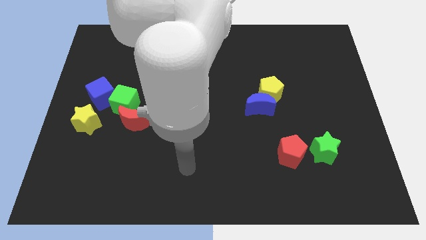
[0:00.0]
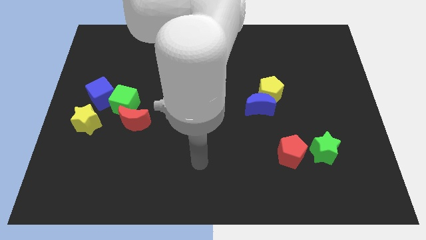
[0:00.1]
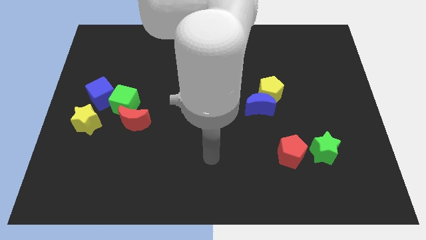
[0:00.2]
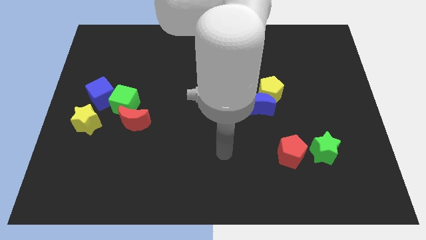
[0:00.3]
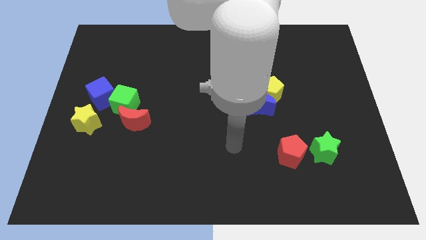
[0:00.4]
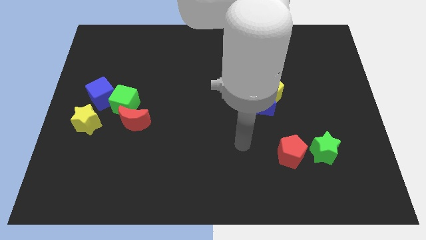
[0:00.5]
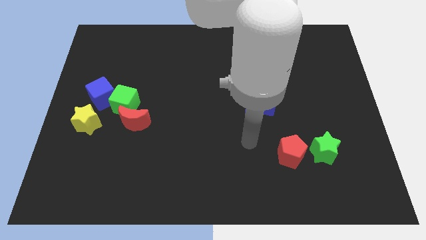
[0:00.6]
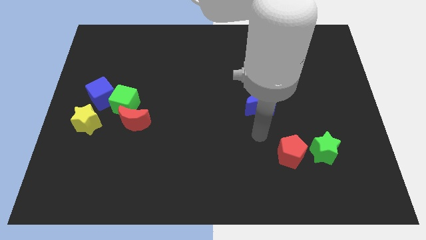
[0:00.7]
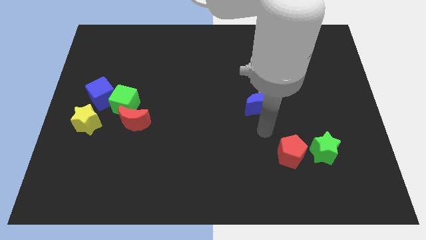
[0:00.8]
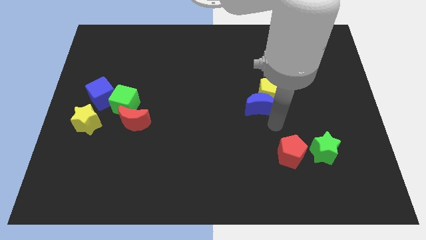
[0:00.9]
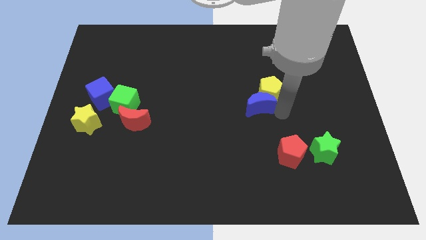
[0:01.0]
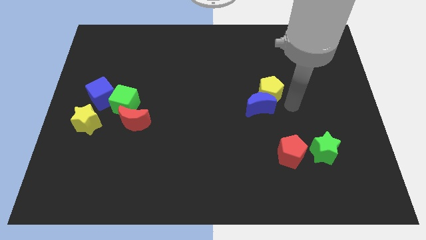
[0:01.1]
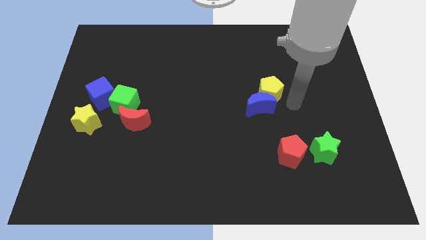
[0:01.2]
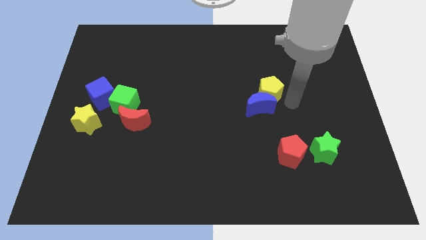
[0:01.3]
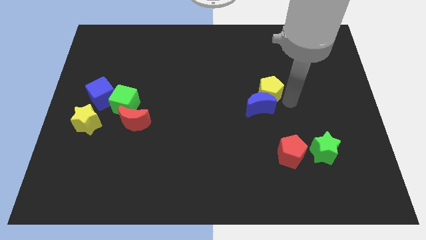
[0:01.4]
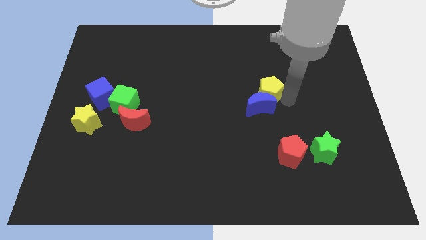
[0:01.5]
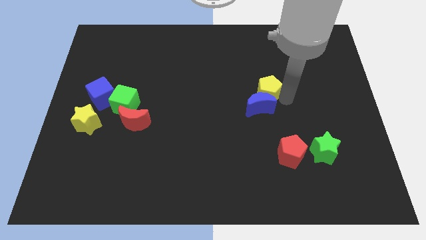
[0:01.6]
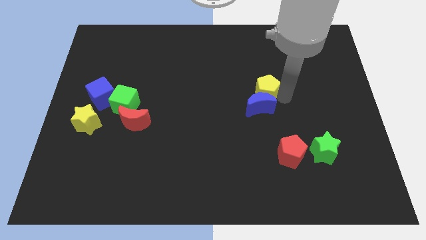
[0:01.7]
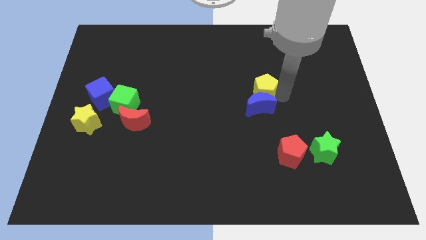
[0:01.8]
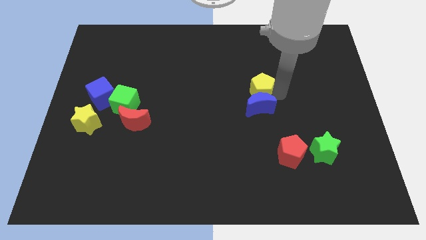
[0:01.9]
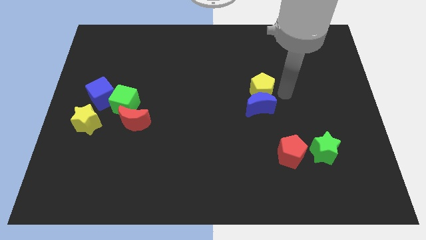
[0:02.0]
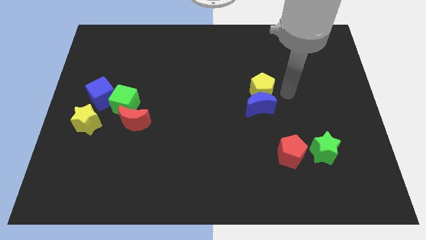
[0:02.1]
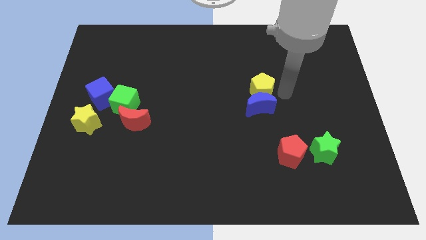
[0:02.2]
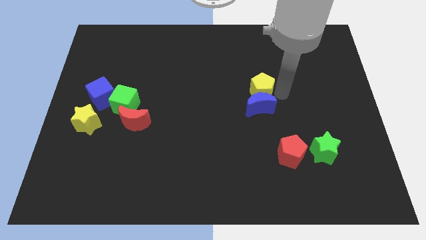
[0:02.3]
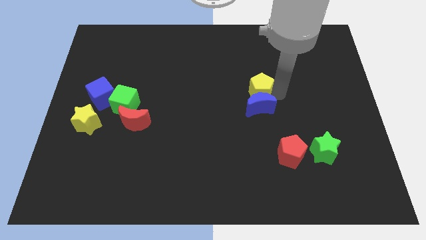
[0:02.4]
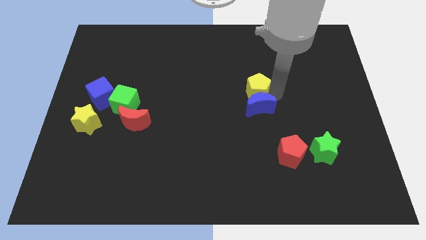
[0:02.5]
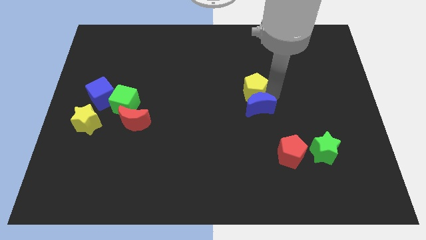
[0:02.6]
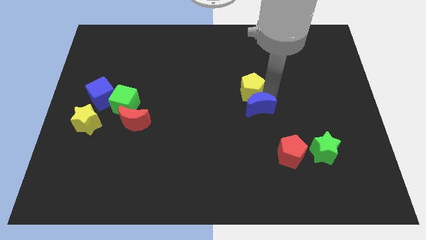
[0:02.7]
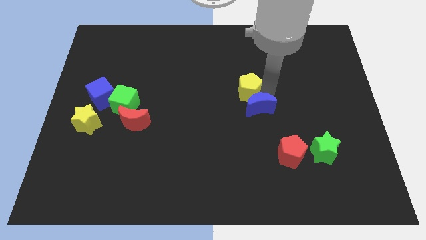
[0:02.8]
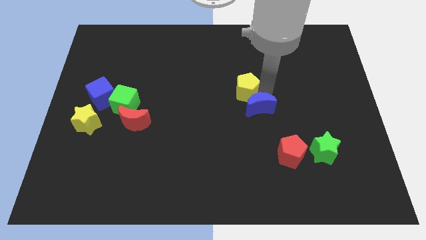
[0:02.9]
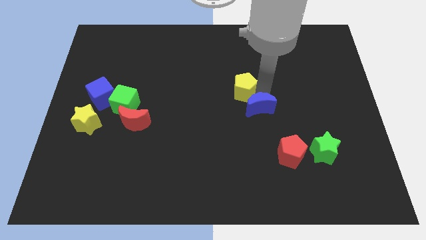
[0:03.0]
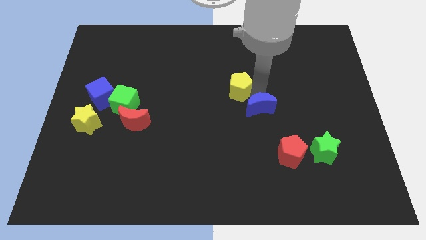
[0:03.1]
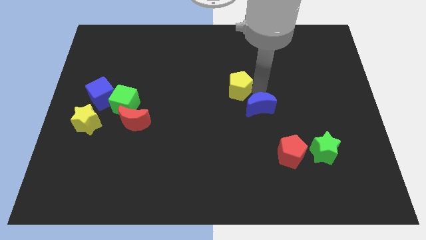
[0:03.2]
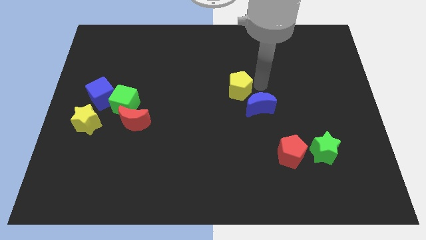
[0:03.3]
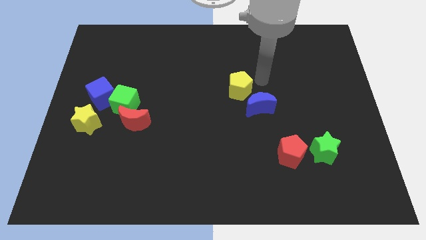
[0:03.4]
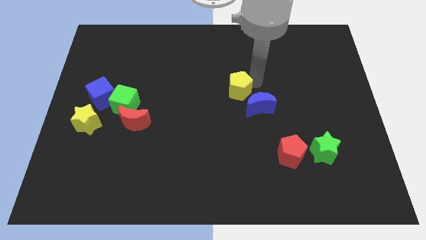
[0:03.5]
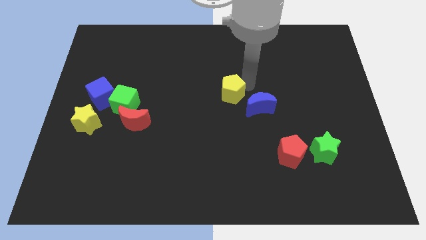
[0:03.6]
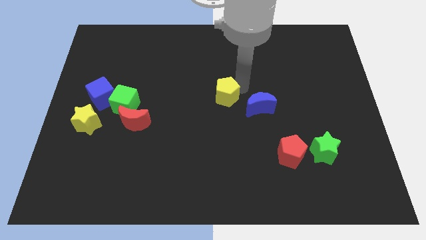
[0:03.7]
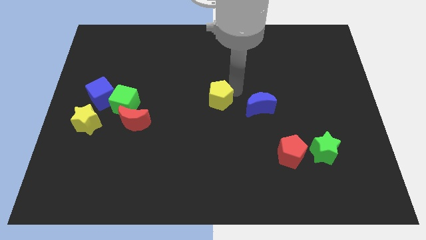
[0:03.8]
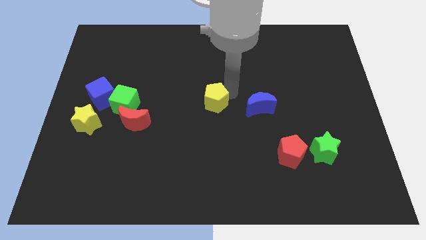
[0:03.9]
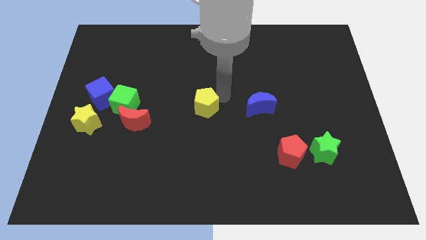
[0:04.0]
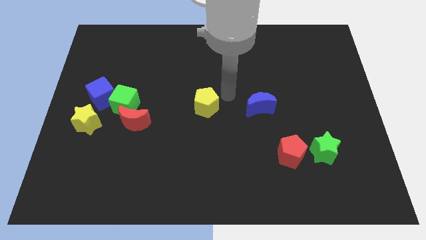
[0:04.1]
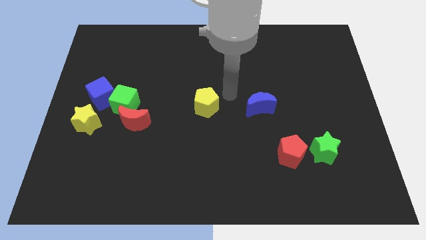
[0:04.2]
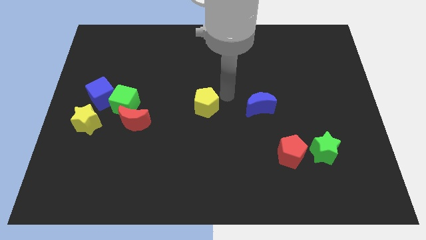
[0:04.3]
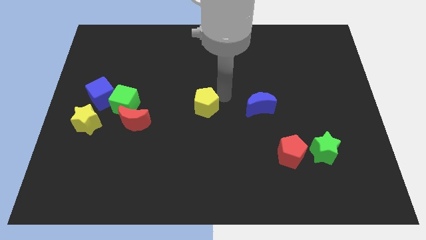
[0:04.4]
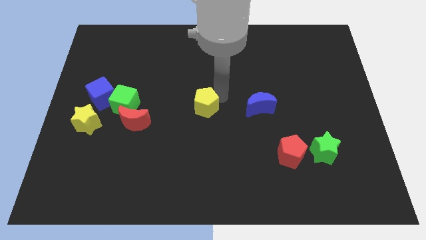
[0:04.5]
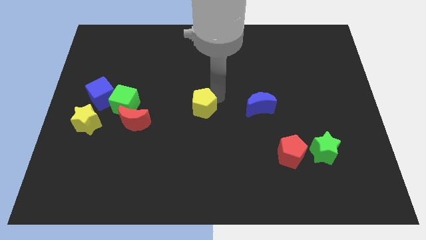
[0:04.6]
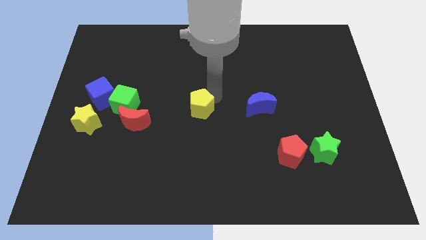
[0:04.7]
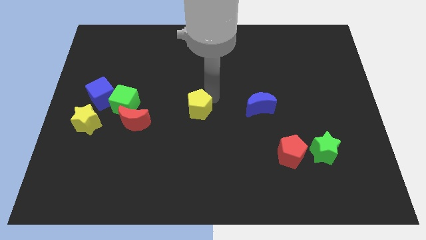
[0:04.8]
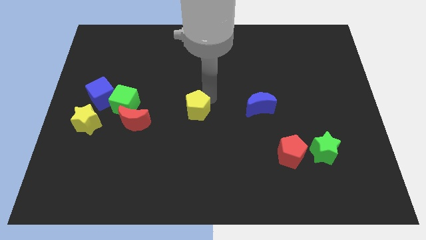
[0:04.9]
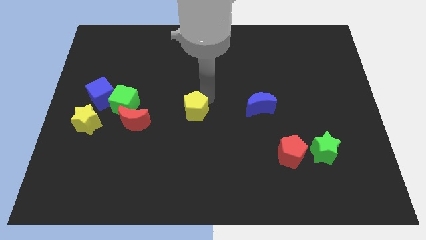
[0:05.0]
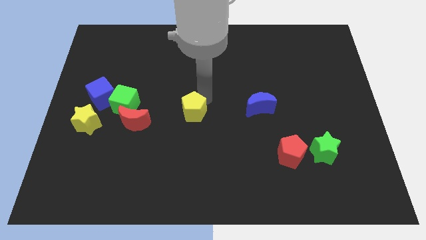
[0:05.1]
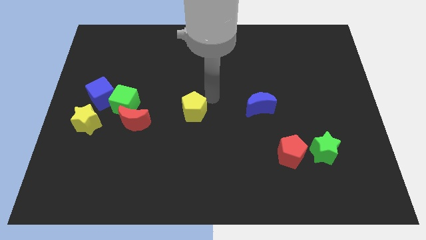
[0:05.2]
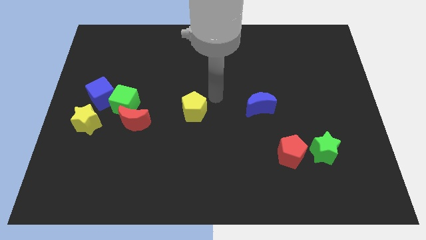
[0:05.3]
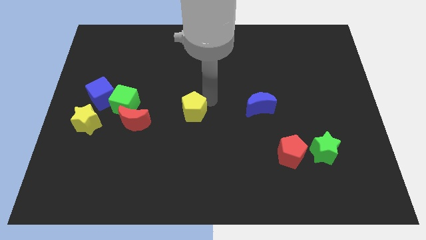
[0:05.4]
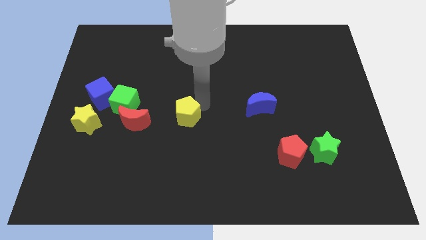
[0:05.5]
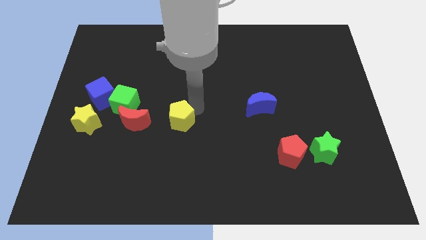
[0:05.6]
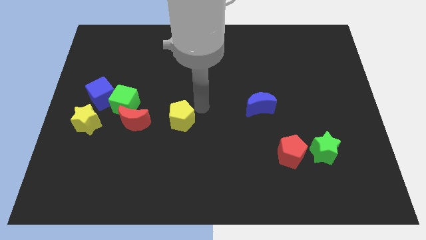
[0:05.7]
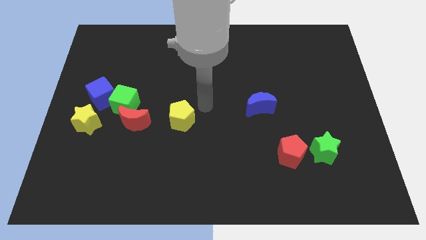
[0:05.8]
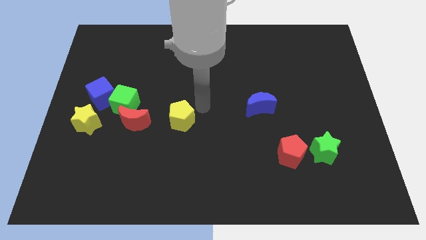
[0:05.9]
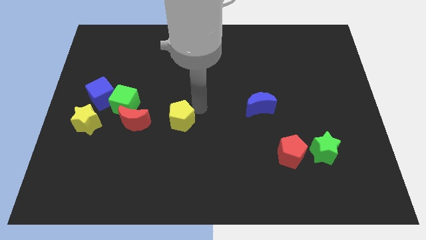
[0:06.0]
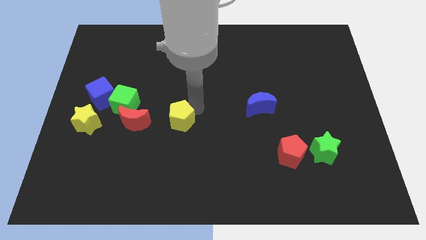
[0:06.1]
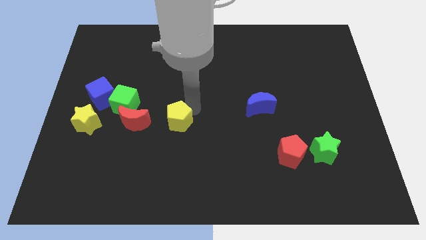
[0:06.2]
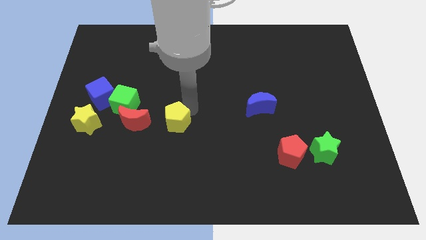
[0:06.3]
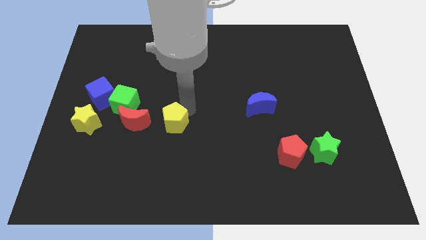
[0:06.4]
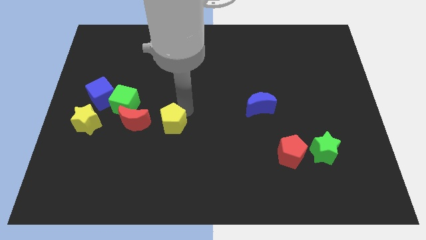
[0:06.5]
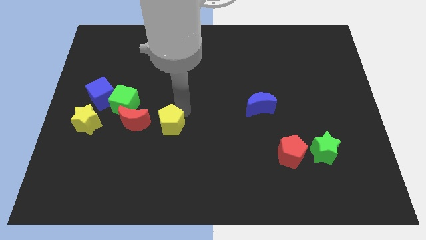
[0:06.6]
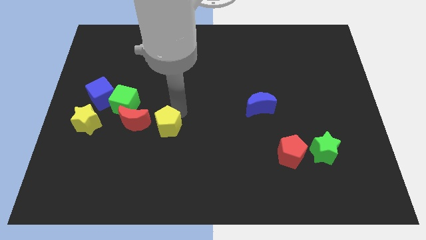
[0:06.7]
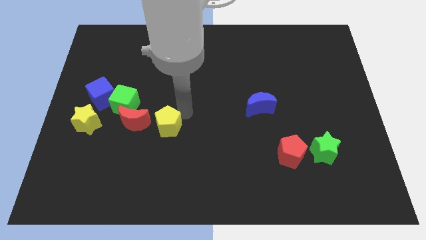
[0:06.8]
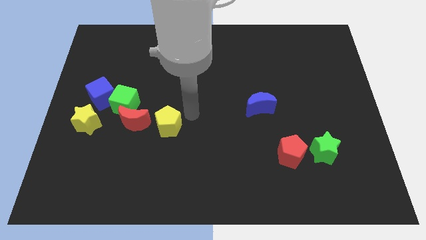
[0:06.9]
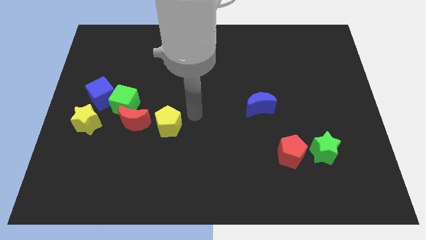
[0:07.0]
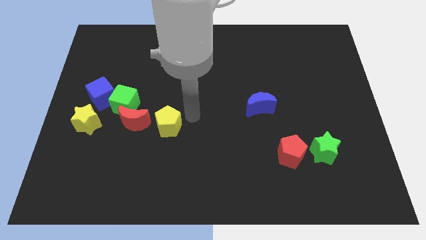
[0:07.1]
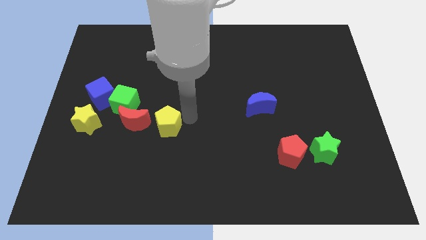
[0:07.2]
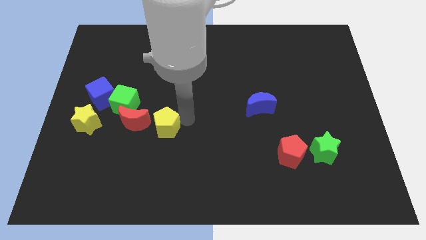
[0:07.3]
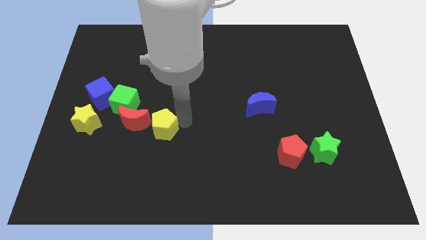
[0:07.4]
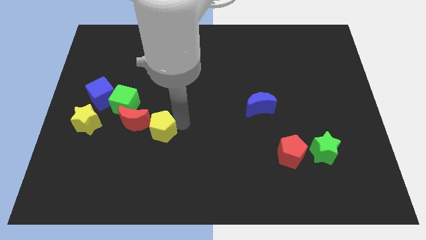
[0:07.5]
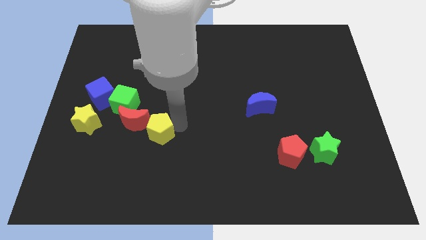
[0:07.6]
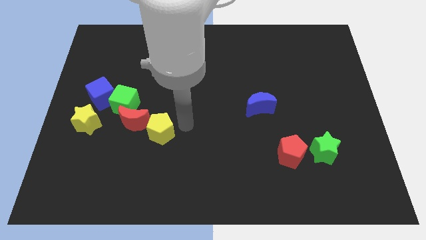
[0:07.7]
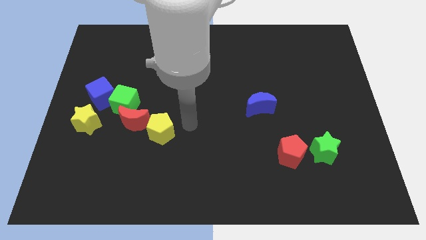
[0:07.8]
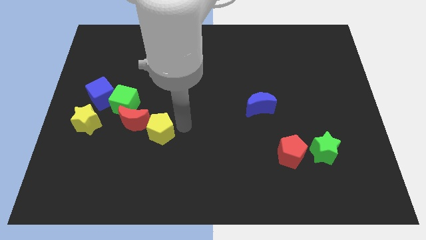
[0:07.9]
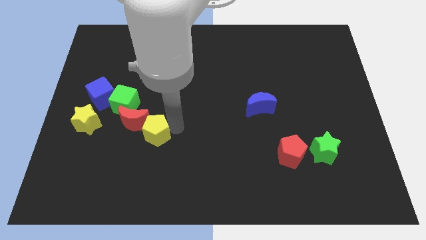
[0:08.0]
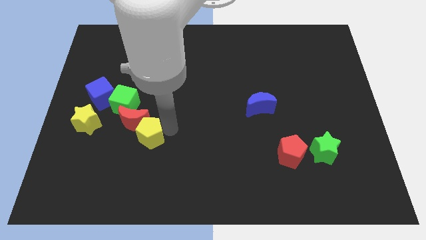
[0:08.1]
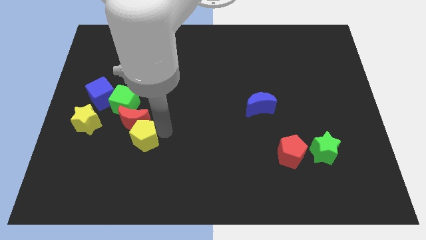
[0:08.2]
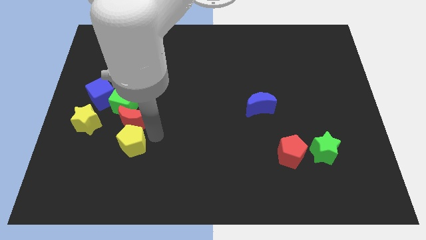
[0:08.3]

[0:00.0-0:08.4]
move the yellow pentagon to the bottom left of the red moon
